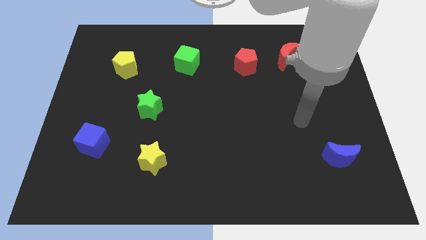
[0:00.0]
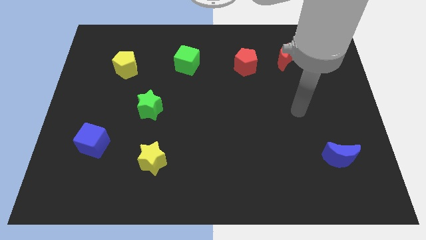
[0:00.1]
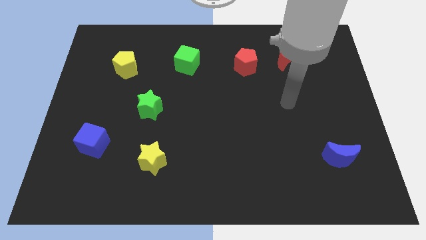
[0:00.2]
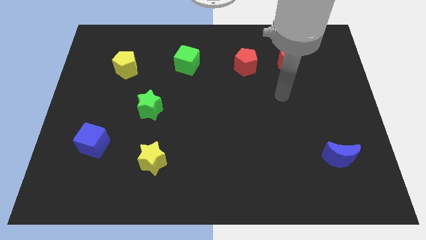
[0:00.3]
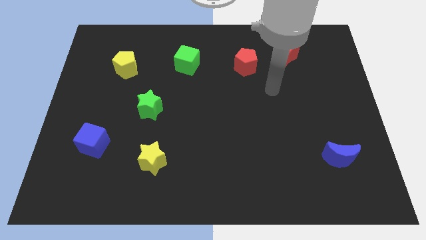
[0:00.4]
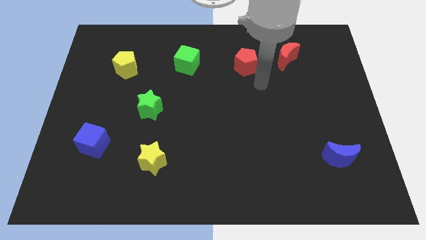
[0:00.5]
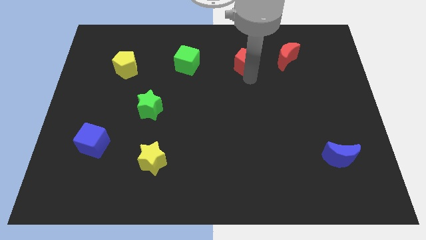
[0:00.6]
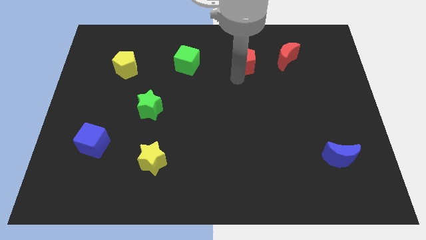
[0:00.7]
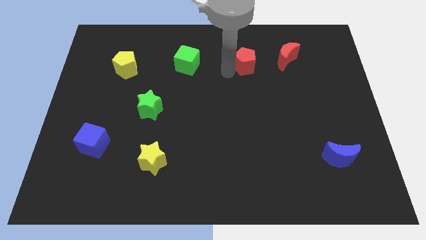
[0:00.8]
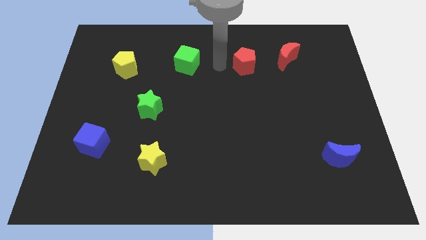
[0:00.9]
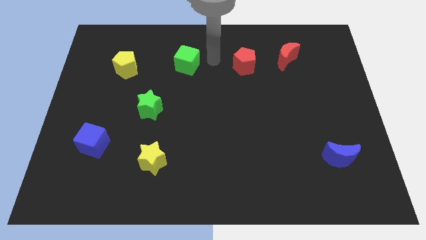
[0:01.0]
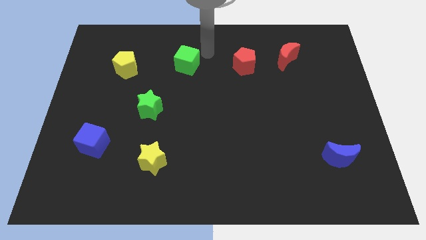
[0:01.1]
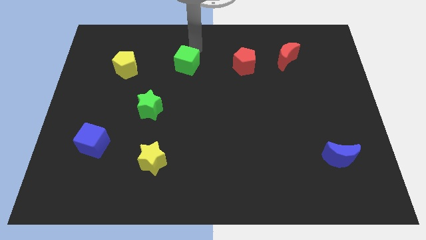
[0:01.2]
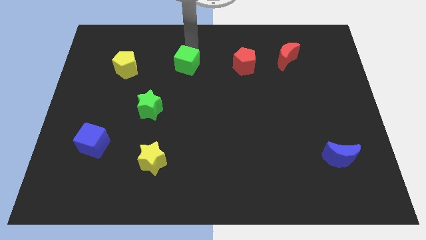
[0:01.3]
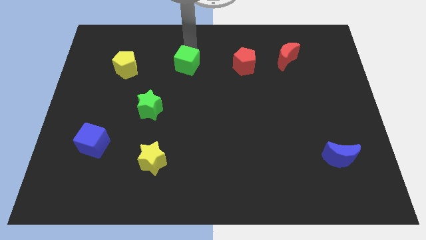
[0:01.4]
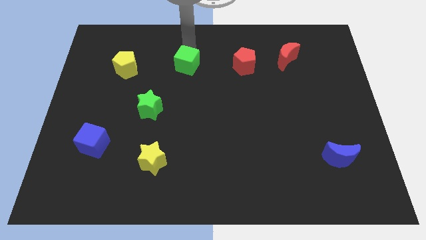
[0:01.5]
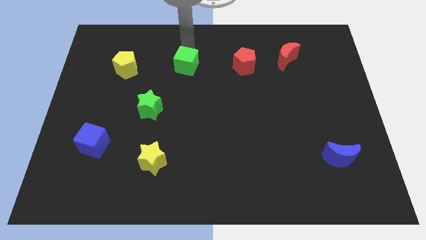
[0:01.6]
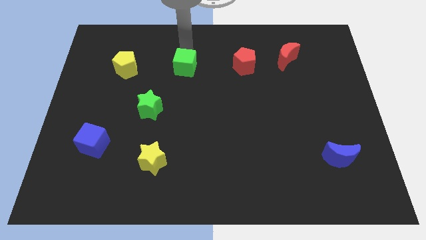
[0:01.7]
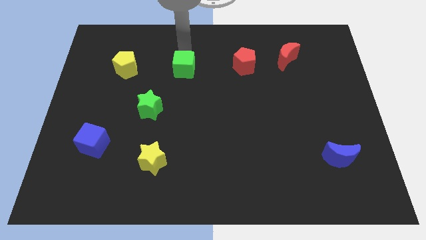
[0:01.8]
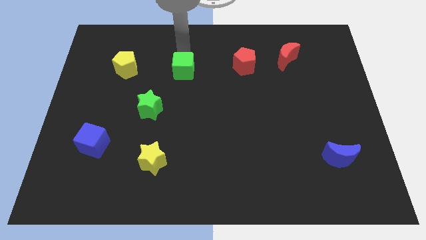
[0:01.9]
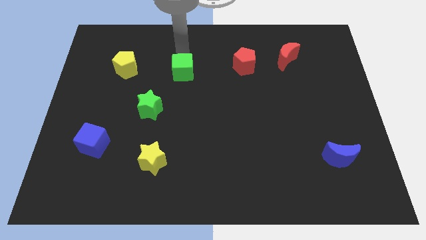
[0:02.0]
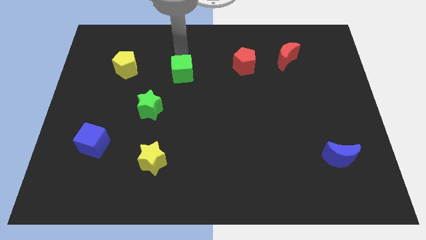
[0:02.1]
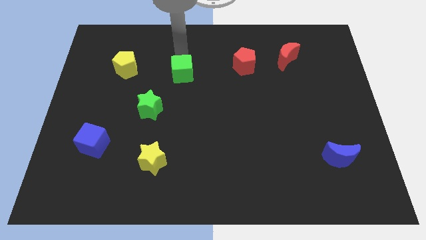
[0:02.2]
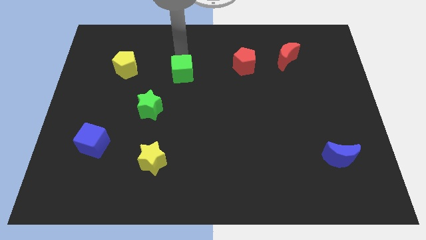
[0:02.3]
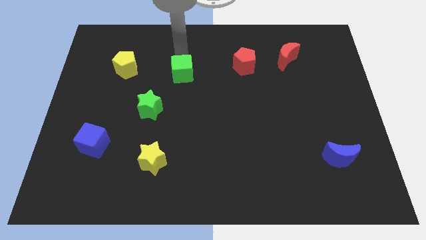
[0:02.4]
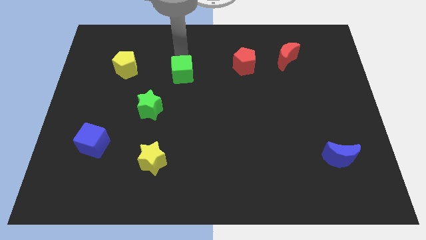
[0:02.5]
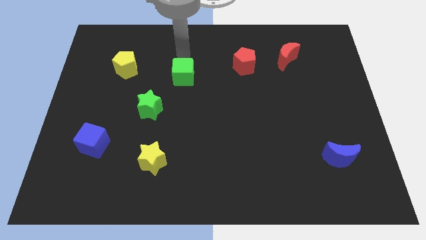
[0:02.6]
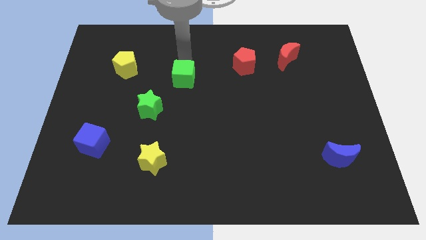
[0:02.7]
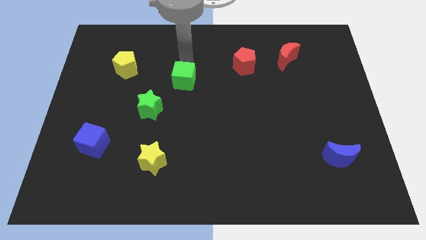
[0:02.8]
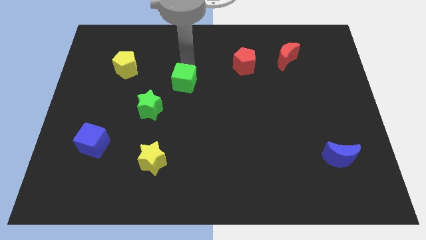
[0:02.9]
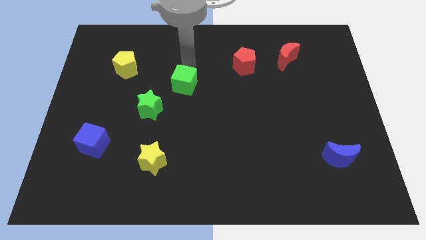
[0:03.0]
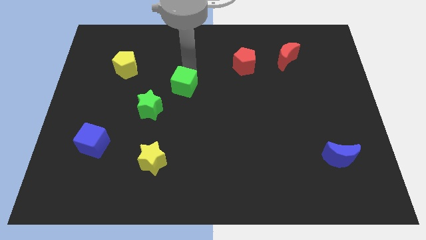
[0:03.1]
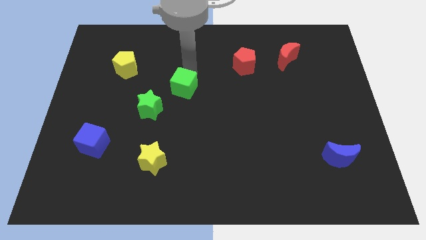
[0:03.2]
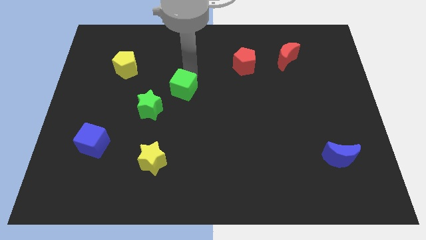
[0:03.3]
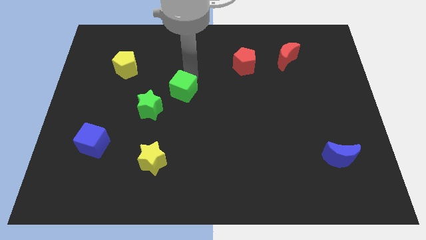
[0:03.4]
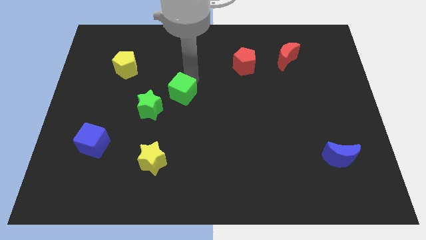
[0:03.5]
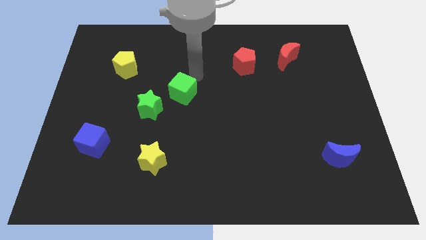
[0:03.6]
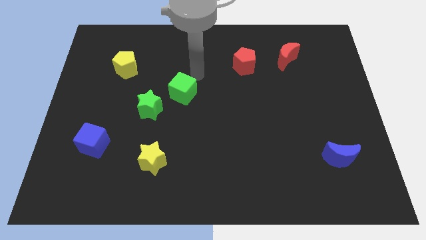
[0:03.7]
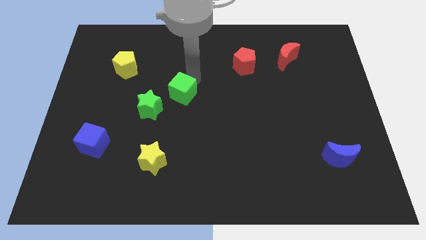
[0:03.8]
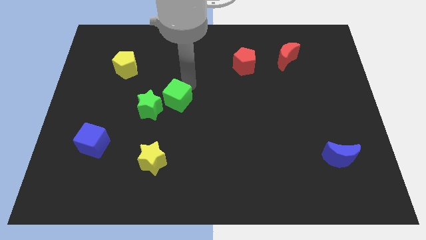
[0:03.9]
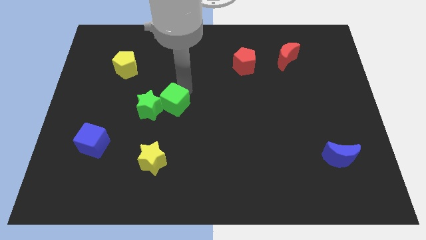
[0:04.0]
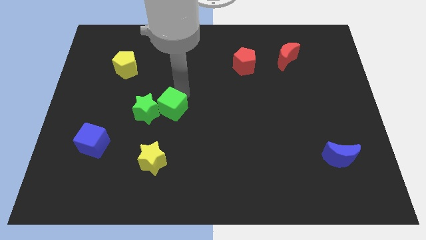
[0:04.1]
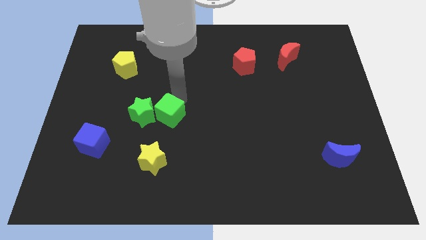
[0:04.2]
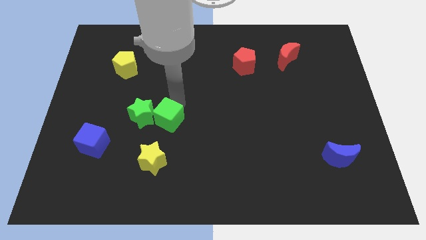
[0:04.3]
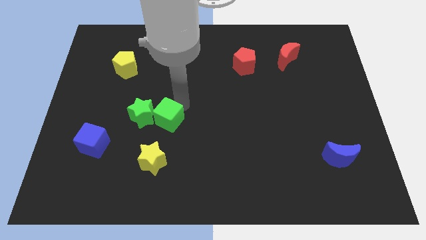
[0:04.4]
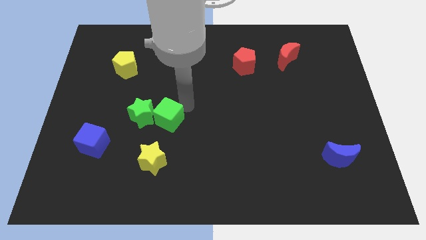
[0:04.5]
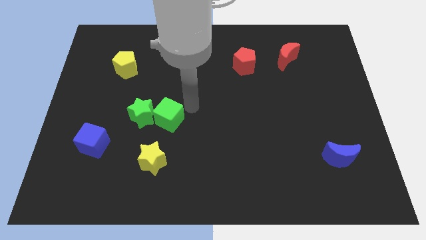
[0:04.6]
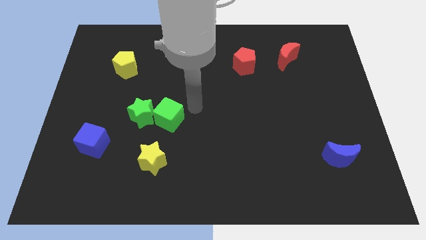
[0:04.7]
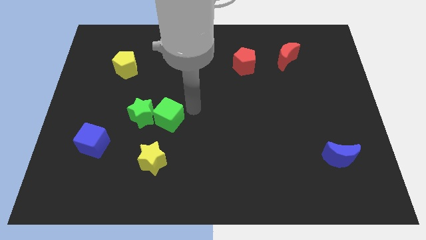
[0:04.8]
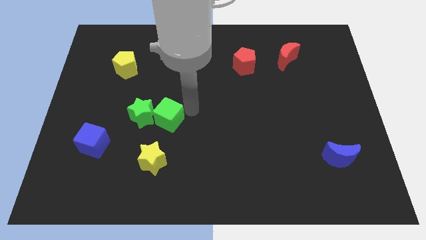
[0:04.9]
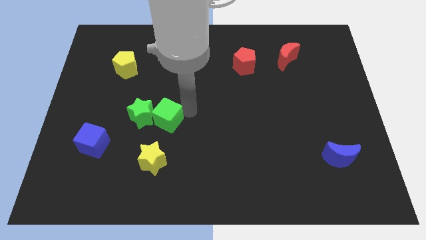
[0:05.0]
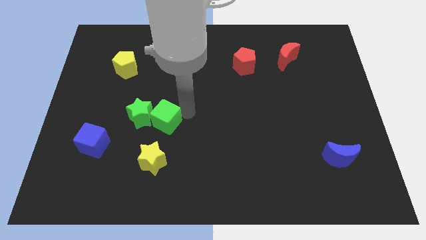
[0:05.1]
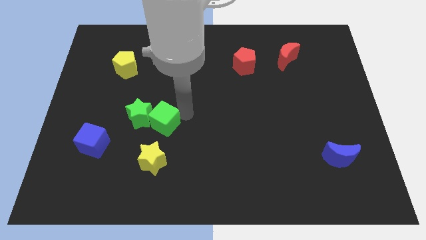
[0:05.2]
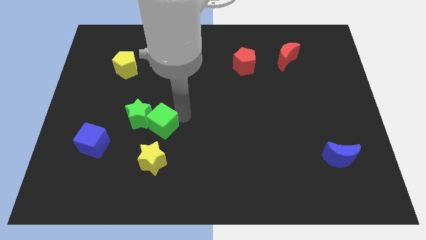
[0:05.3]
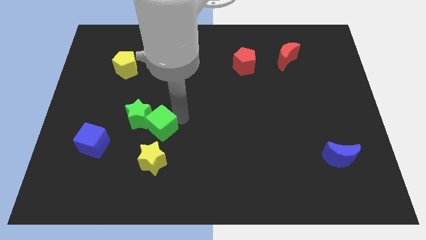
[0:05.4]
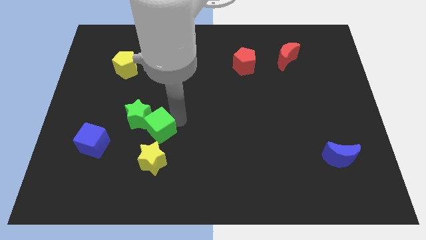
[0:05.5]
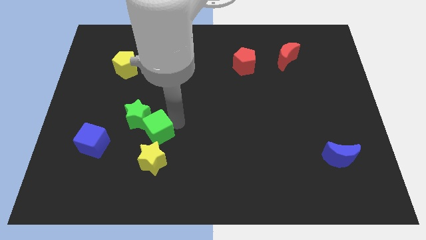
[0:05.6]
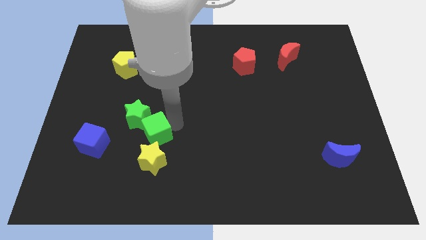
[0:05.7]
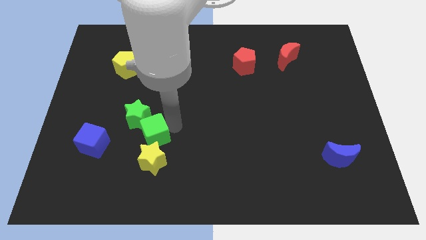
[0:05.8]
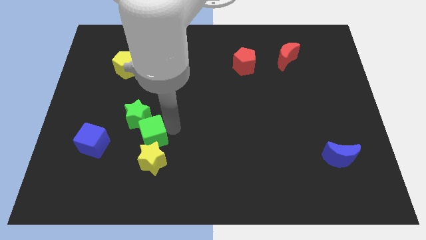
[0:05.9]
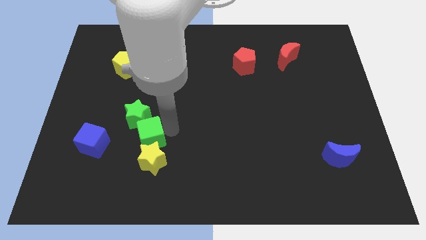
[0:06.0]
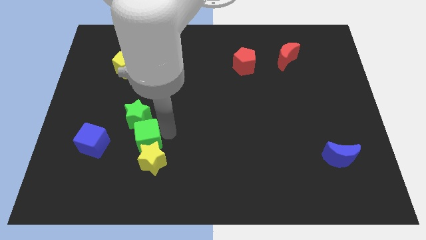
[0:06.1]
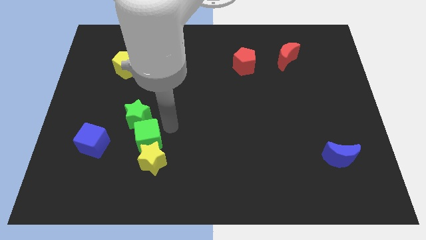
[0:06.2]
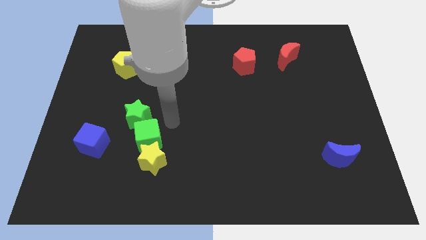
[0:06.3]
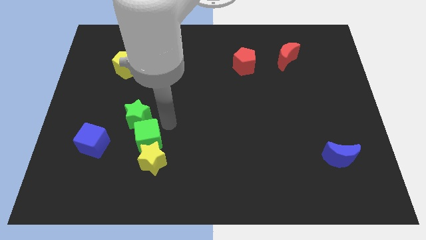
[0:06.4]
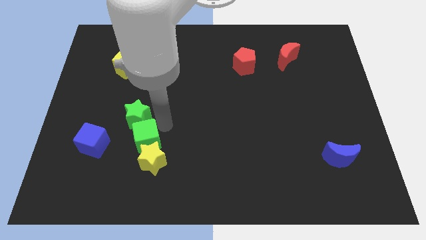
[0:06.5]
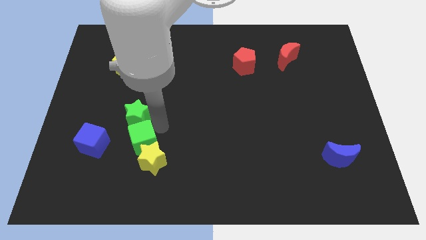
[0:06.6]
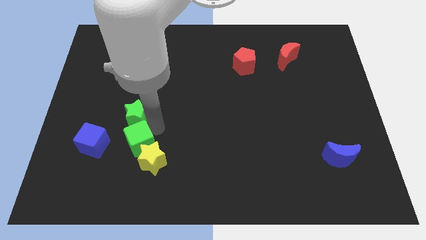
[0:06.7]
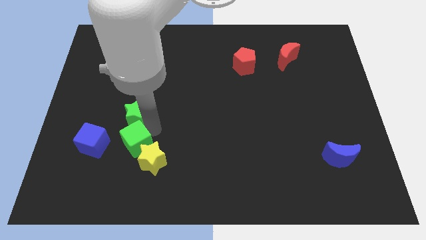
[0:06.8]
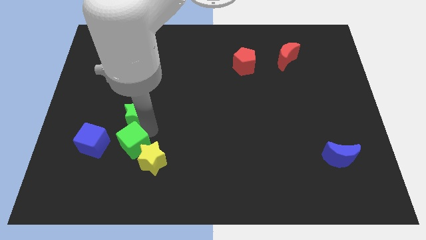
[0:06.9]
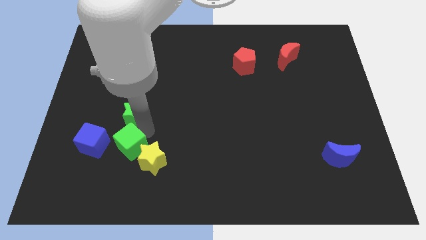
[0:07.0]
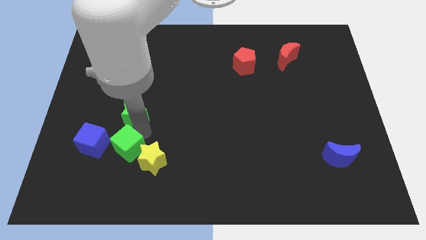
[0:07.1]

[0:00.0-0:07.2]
slide the green cube to the bottom right of the blue cube

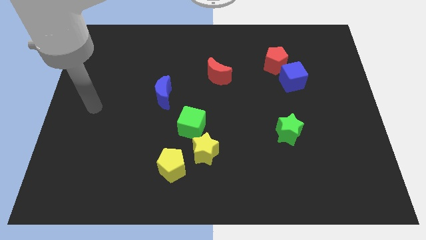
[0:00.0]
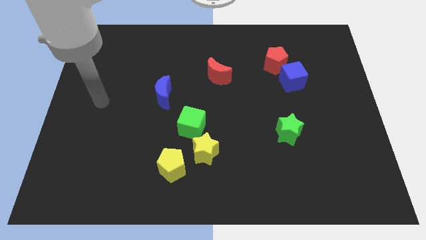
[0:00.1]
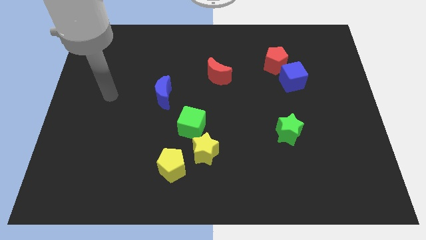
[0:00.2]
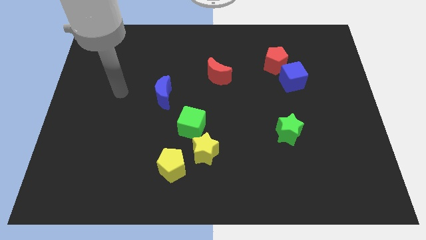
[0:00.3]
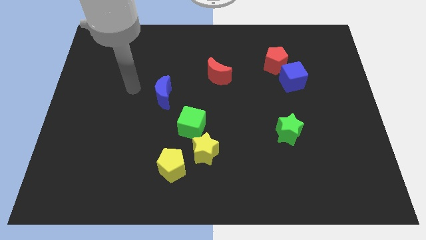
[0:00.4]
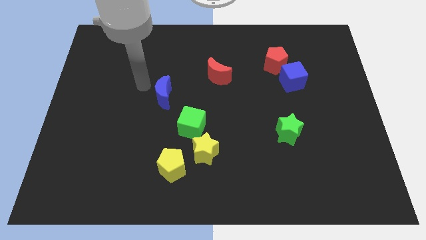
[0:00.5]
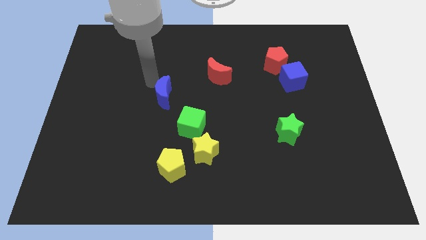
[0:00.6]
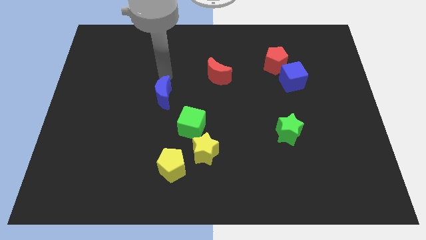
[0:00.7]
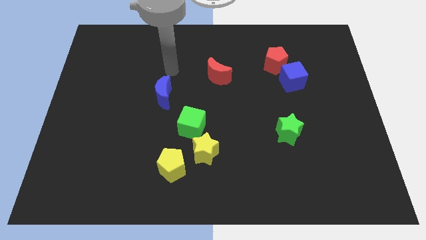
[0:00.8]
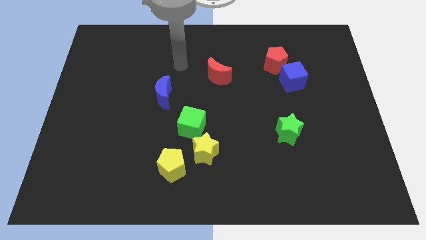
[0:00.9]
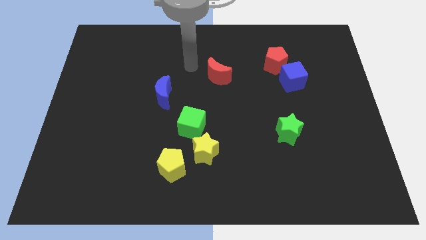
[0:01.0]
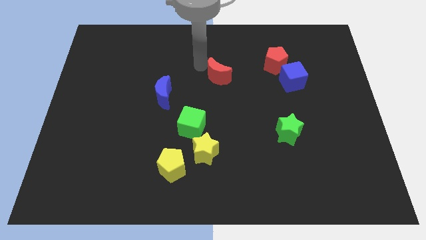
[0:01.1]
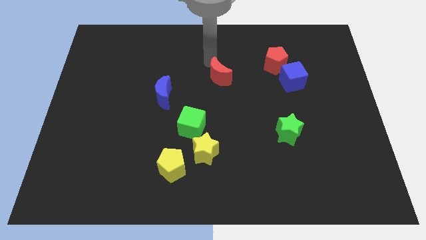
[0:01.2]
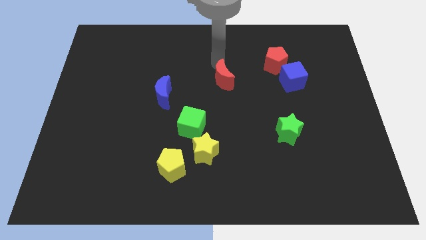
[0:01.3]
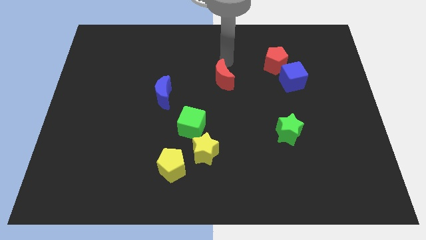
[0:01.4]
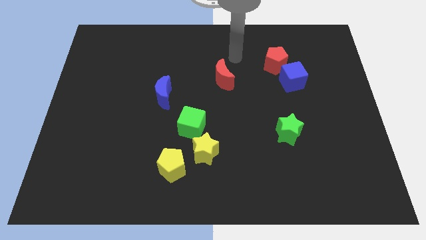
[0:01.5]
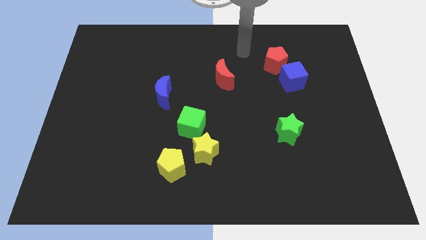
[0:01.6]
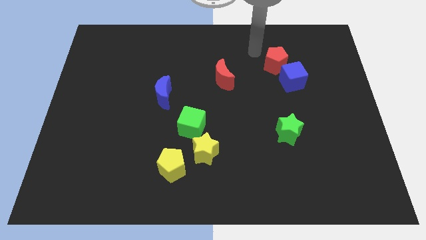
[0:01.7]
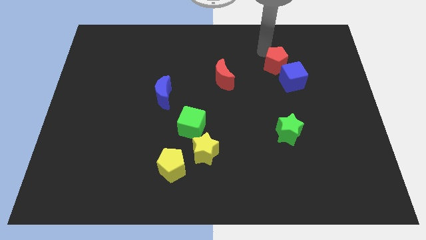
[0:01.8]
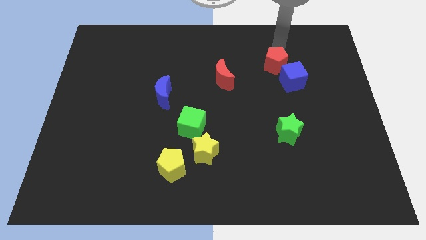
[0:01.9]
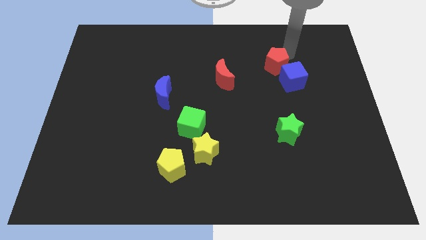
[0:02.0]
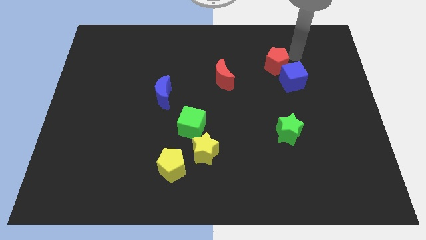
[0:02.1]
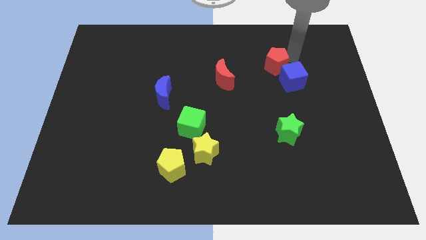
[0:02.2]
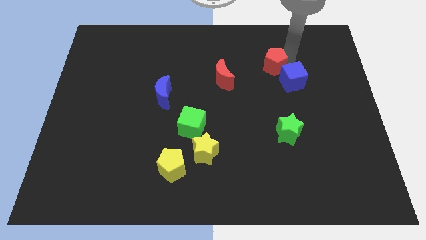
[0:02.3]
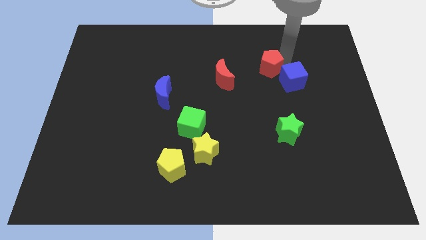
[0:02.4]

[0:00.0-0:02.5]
push the red pentagon to the left side of the blue cube
